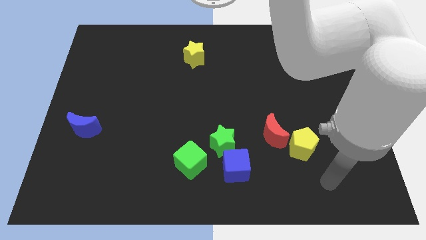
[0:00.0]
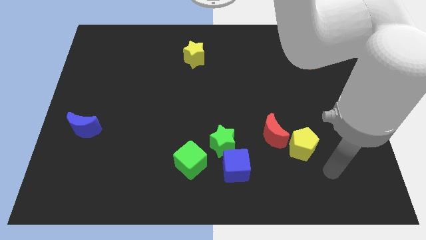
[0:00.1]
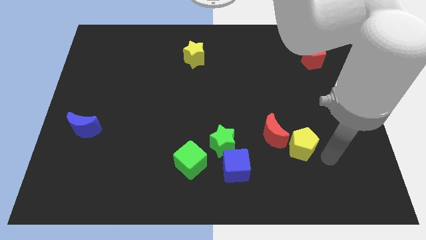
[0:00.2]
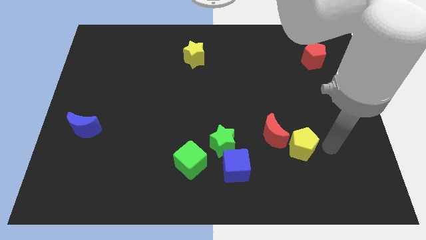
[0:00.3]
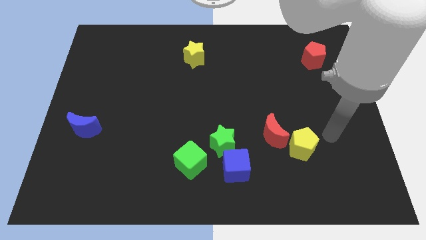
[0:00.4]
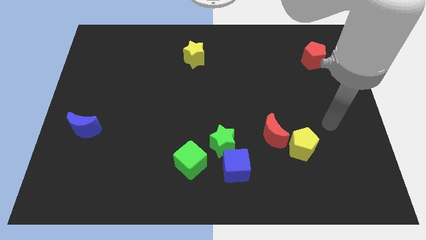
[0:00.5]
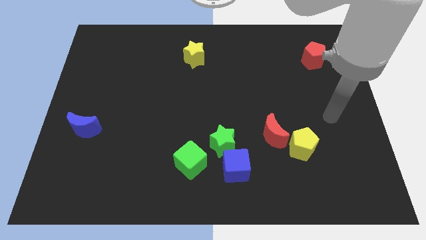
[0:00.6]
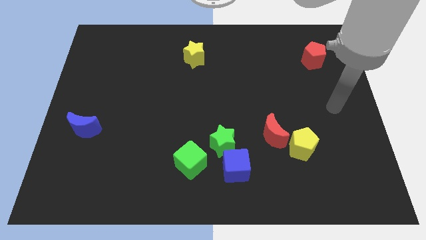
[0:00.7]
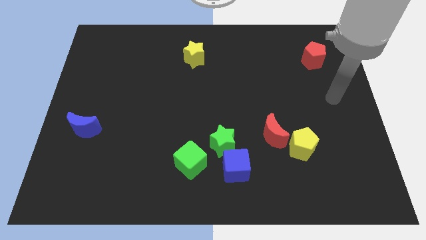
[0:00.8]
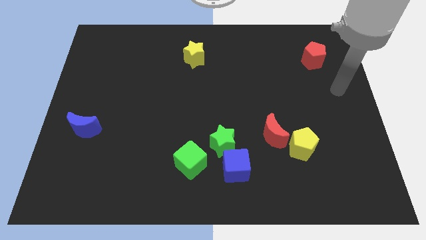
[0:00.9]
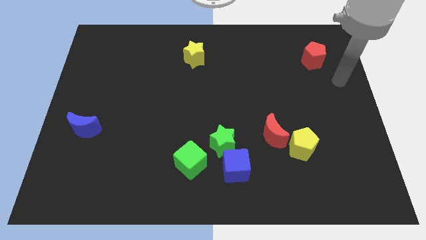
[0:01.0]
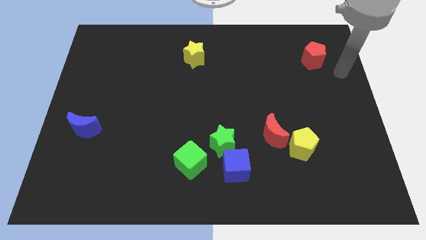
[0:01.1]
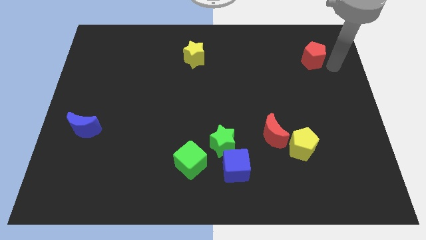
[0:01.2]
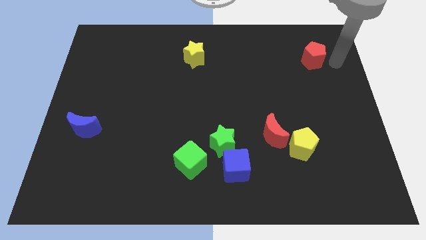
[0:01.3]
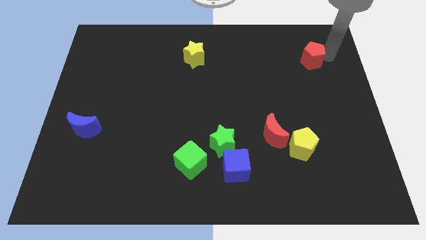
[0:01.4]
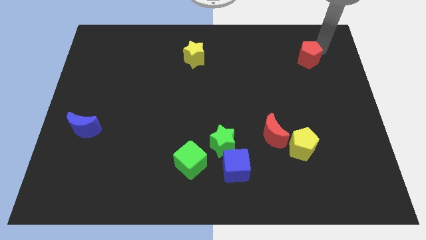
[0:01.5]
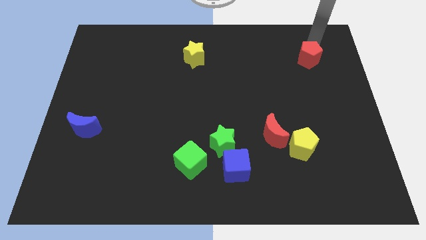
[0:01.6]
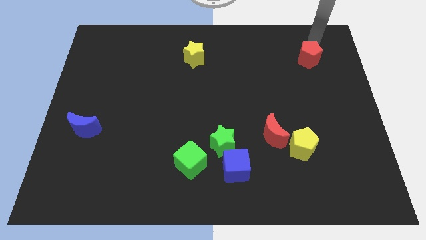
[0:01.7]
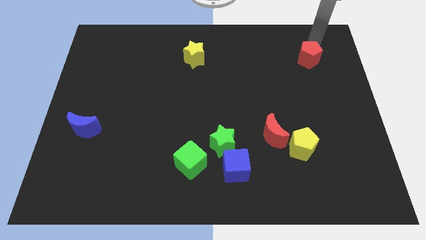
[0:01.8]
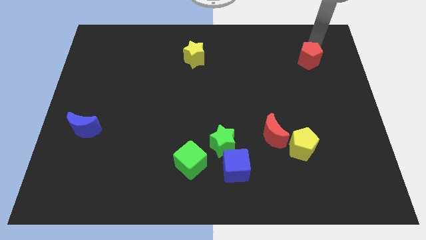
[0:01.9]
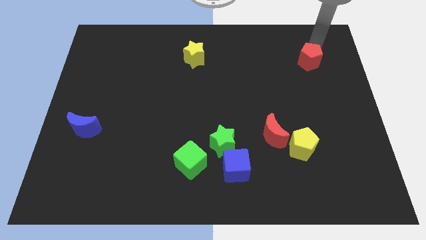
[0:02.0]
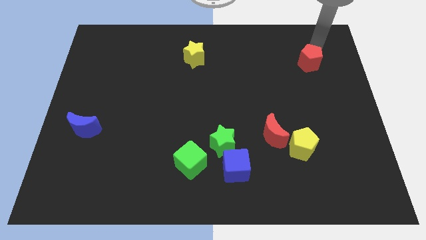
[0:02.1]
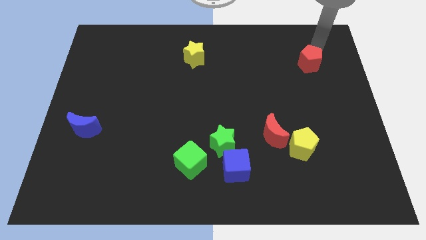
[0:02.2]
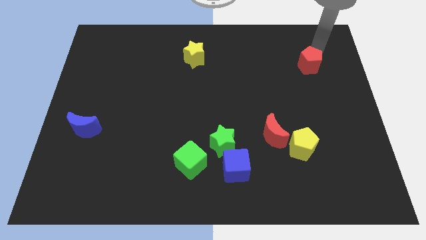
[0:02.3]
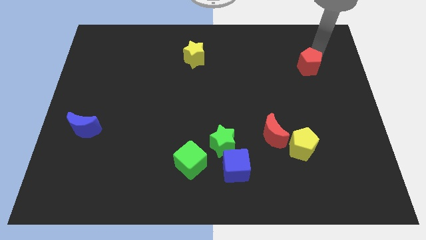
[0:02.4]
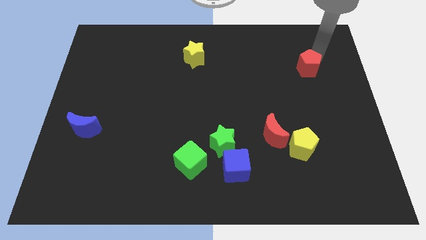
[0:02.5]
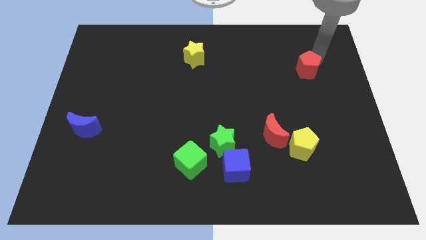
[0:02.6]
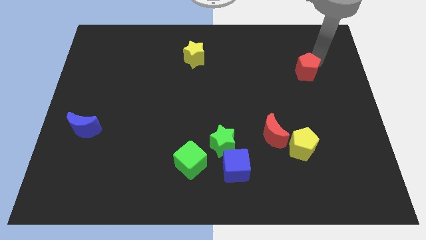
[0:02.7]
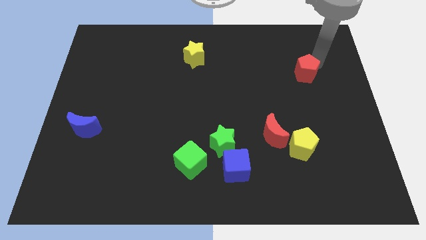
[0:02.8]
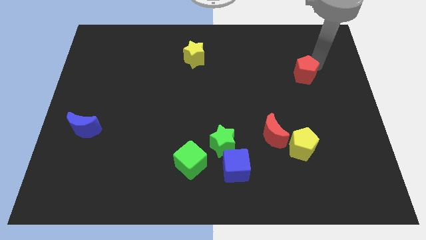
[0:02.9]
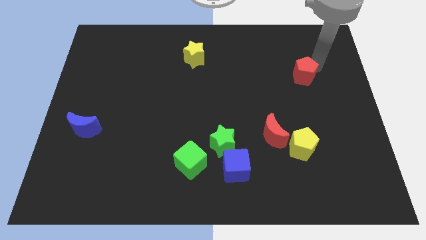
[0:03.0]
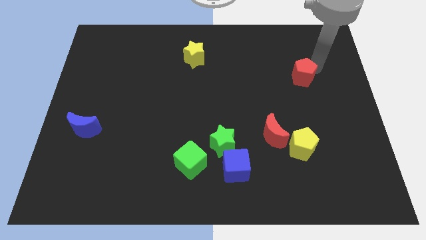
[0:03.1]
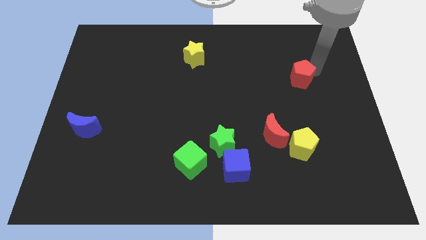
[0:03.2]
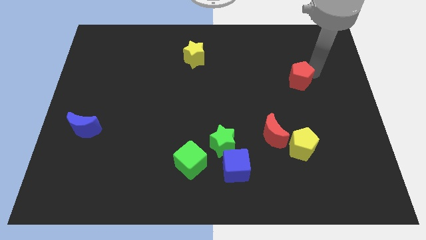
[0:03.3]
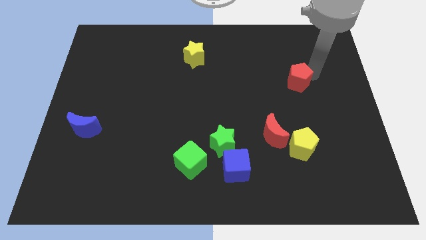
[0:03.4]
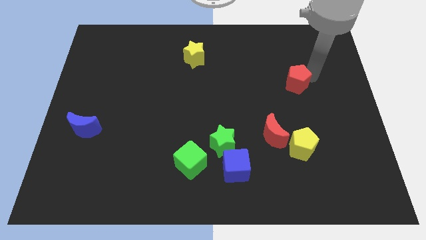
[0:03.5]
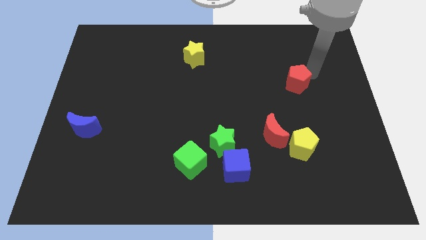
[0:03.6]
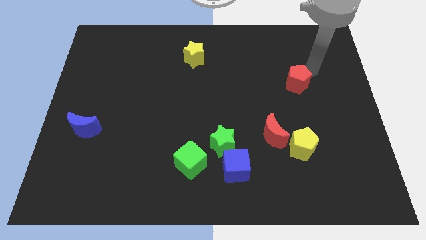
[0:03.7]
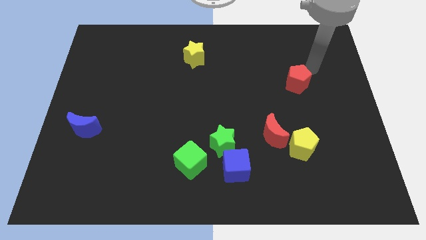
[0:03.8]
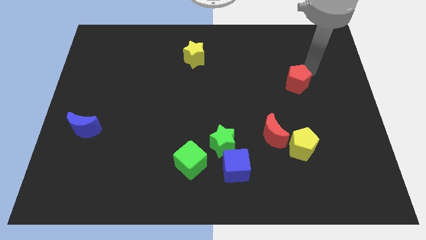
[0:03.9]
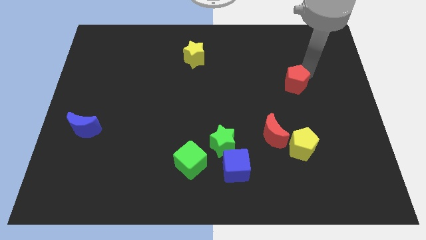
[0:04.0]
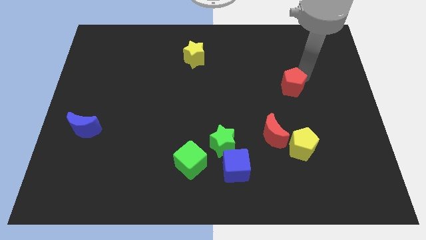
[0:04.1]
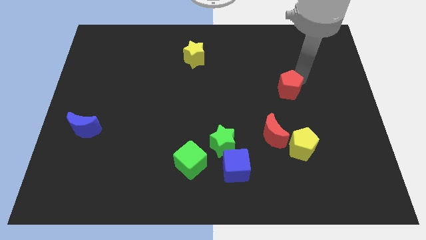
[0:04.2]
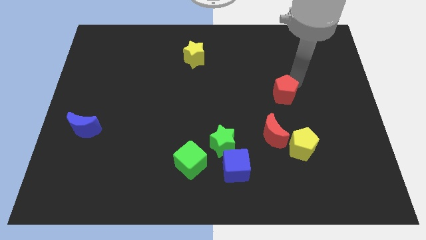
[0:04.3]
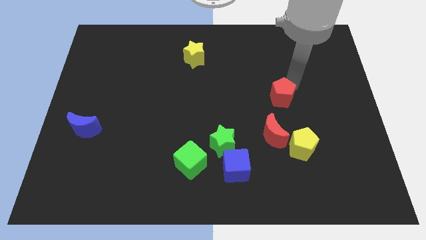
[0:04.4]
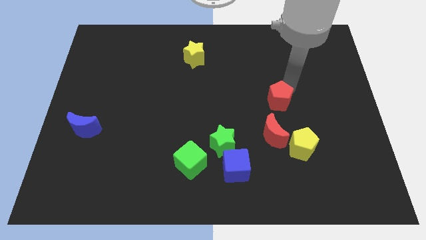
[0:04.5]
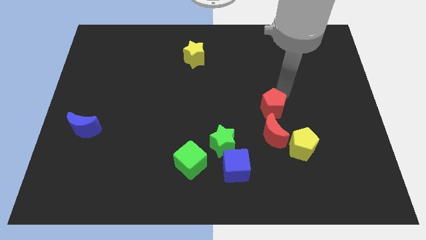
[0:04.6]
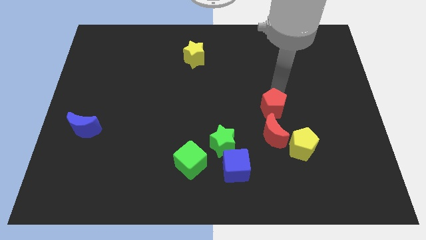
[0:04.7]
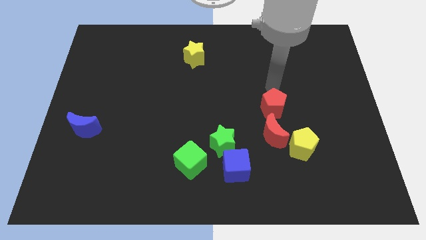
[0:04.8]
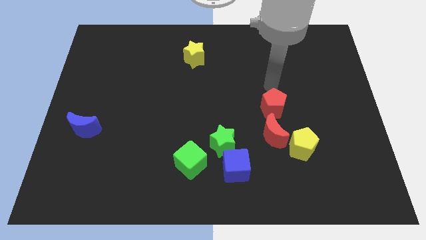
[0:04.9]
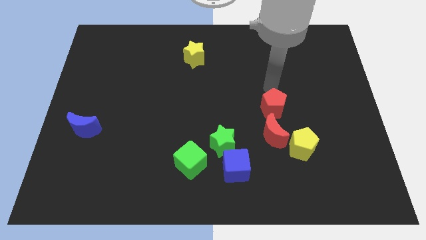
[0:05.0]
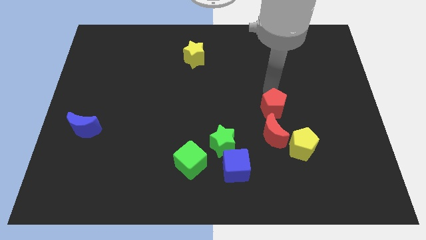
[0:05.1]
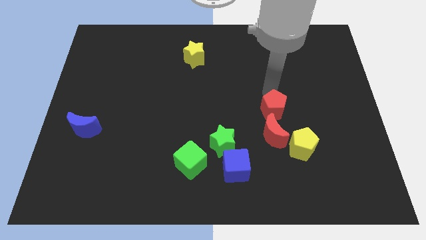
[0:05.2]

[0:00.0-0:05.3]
slide the red pentagon to the top left side of the yellow pentagon
